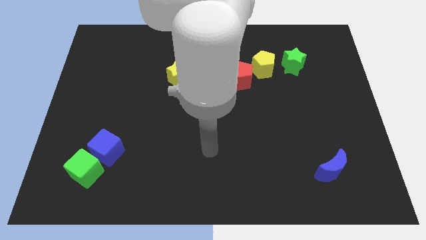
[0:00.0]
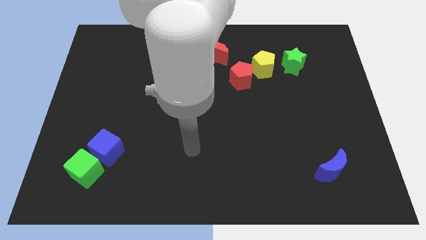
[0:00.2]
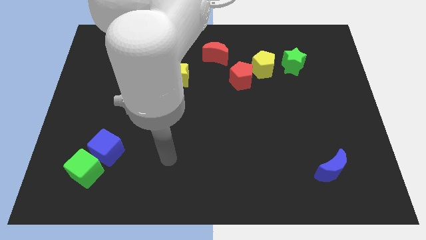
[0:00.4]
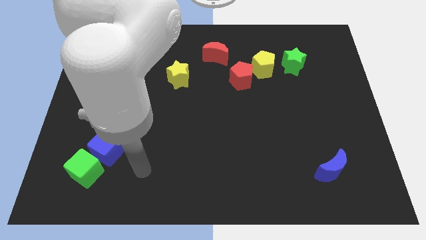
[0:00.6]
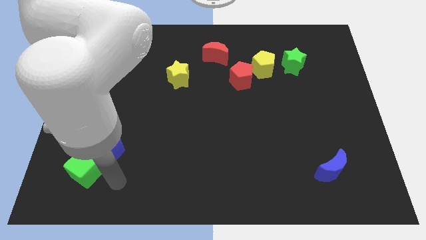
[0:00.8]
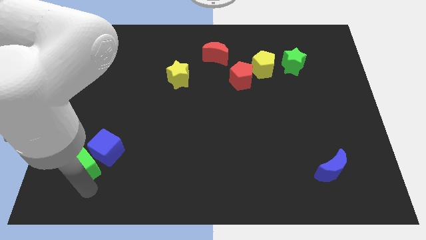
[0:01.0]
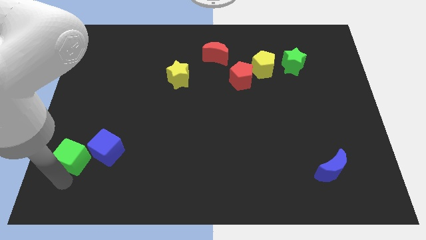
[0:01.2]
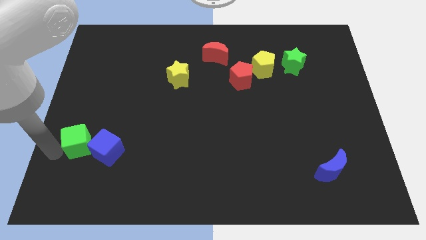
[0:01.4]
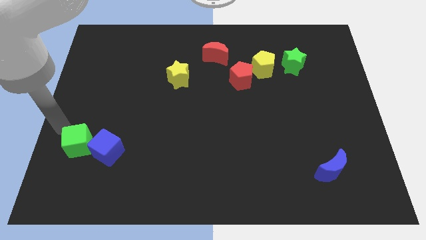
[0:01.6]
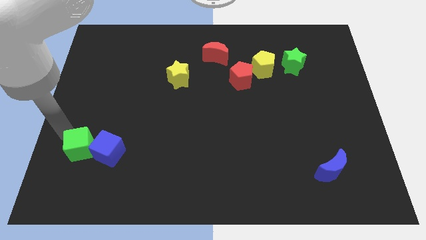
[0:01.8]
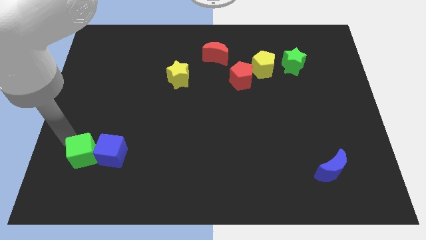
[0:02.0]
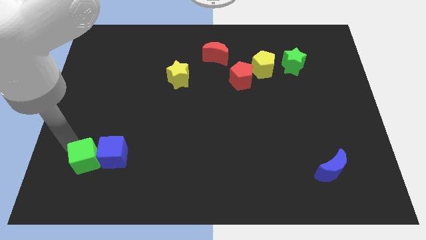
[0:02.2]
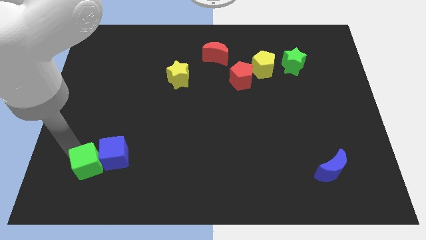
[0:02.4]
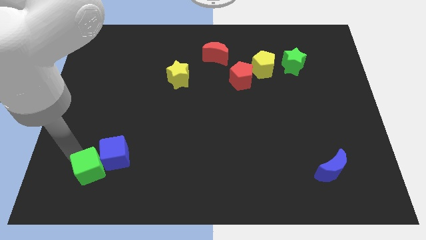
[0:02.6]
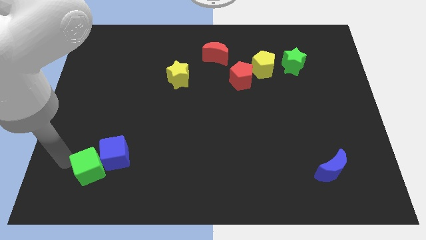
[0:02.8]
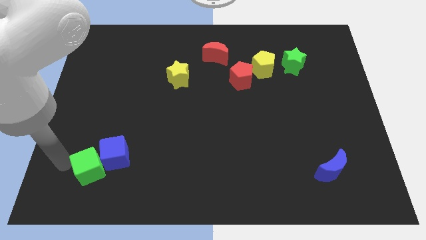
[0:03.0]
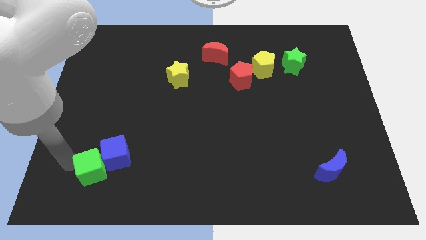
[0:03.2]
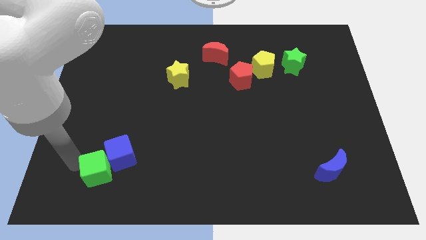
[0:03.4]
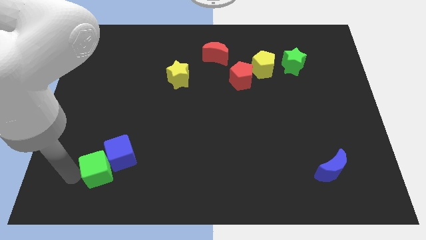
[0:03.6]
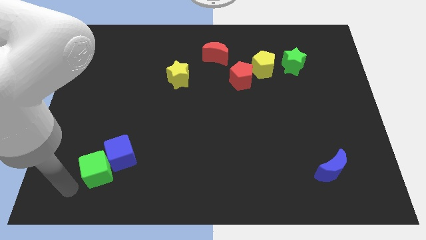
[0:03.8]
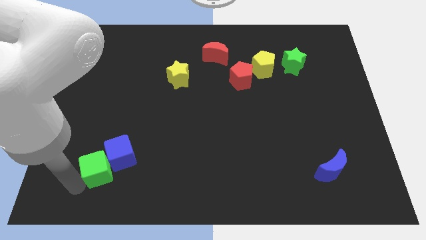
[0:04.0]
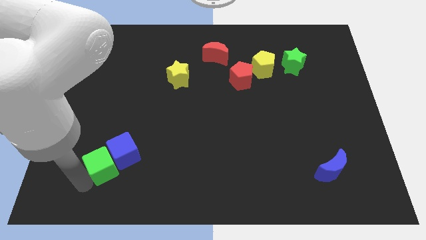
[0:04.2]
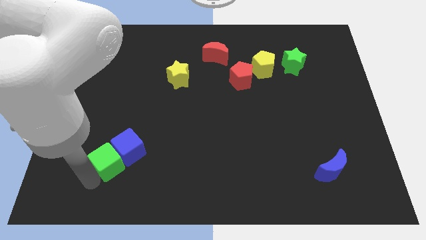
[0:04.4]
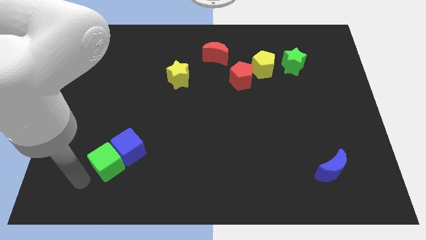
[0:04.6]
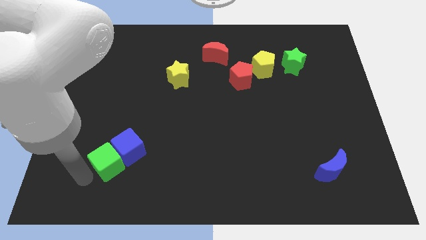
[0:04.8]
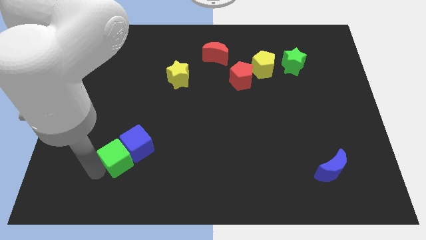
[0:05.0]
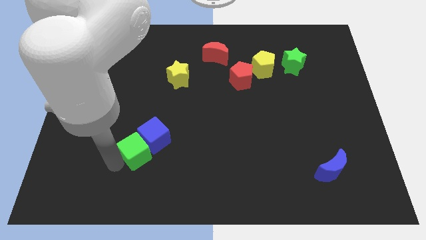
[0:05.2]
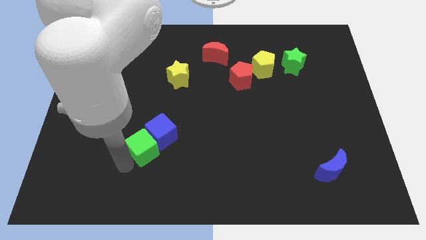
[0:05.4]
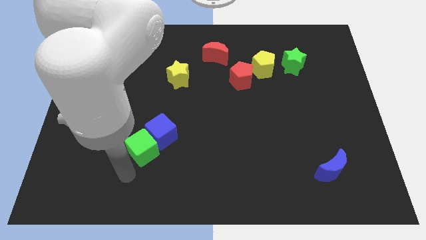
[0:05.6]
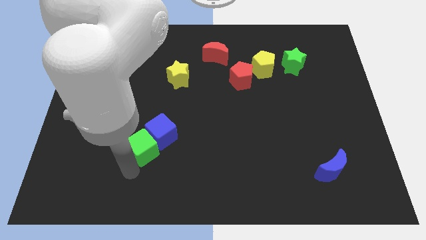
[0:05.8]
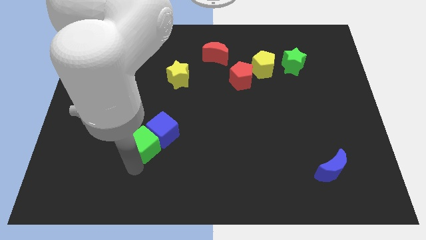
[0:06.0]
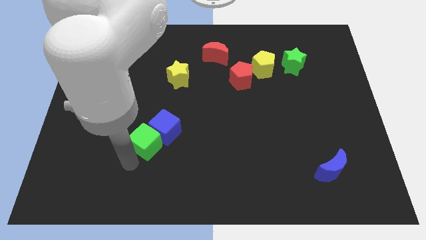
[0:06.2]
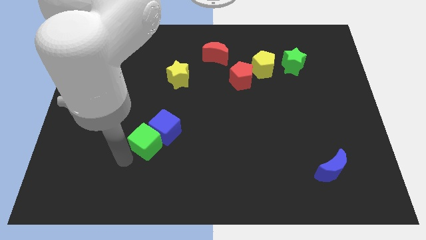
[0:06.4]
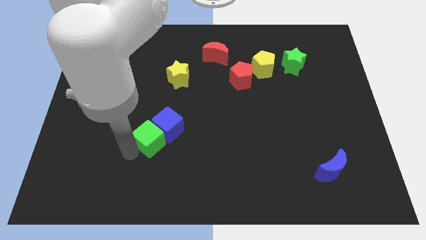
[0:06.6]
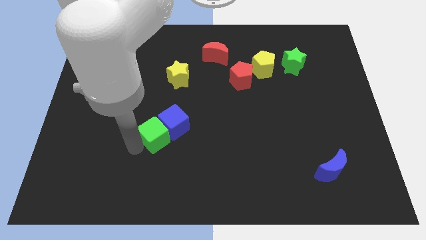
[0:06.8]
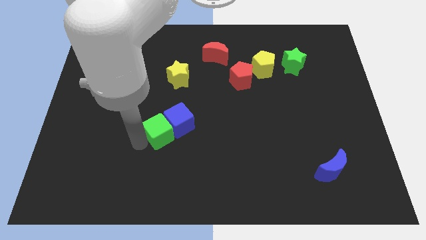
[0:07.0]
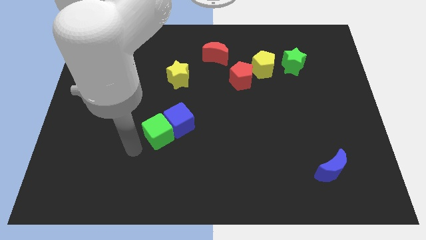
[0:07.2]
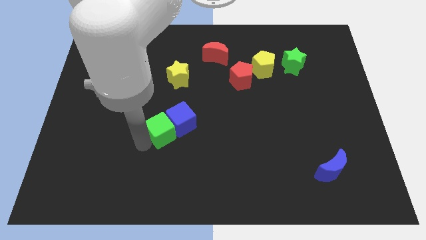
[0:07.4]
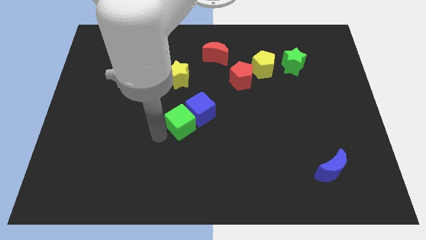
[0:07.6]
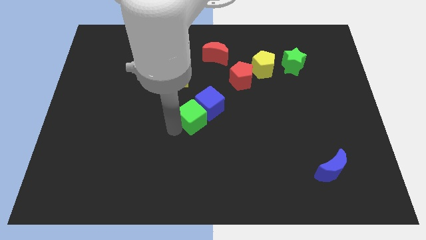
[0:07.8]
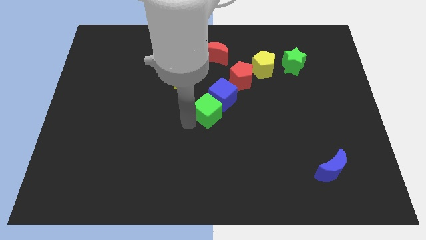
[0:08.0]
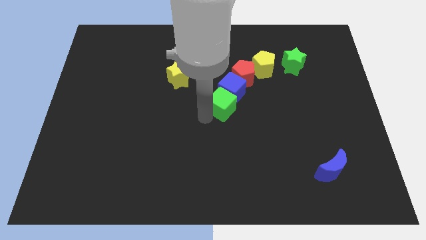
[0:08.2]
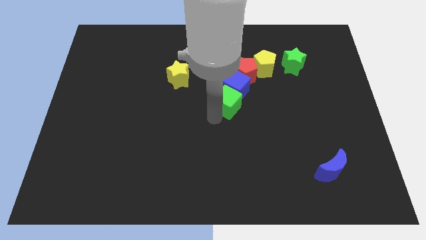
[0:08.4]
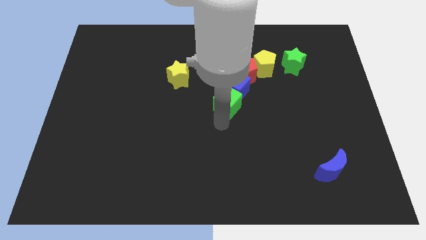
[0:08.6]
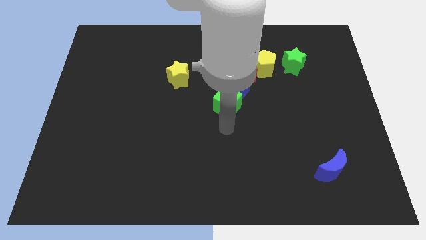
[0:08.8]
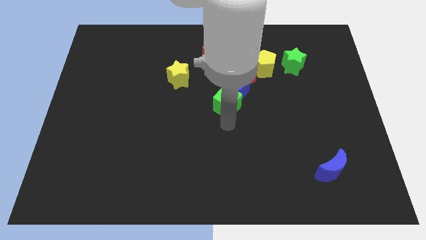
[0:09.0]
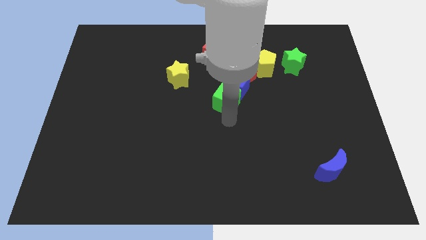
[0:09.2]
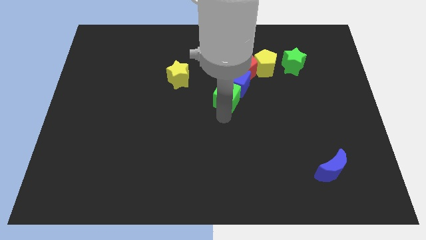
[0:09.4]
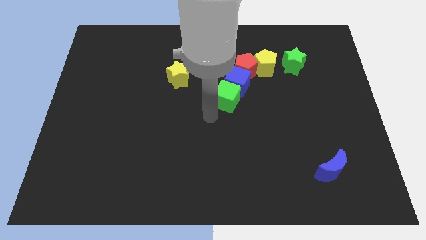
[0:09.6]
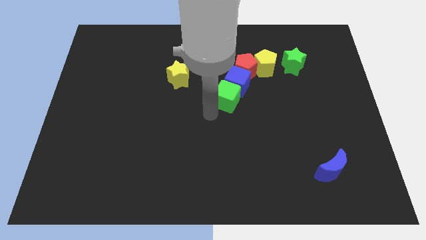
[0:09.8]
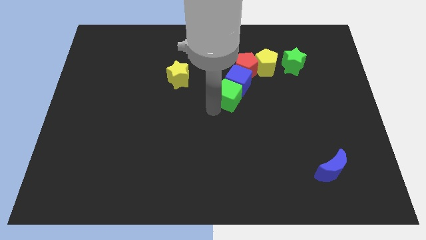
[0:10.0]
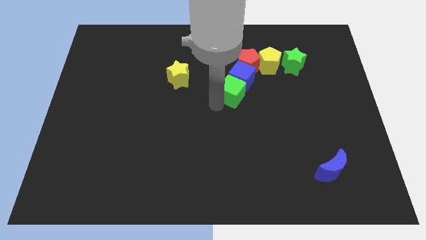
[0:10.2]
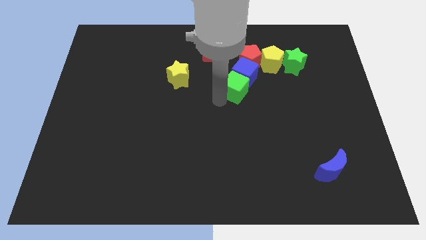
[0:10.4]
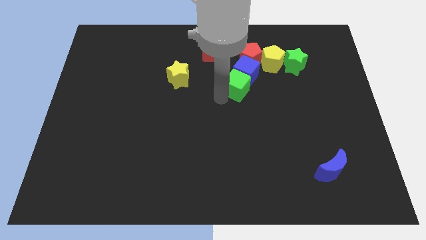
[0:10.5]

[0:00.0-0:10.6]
move the green cube to the bottom left side of the yellow pentagon

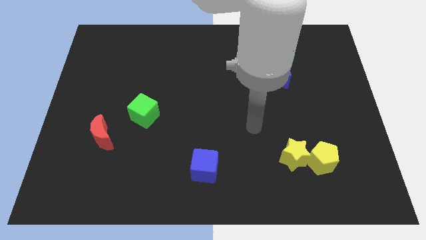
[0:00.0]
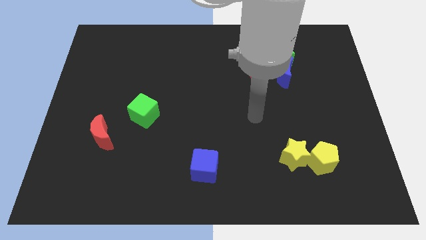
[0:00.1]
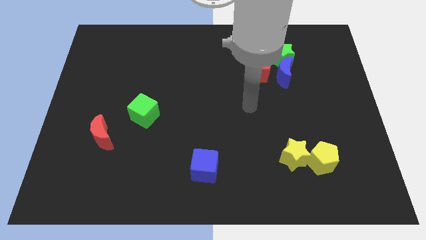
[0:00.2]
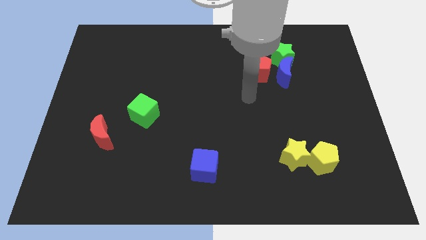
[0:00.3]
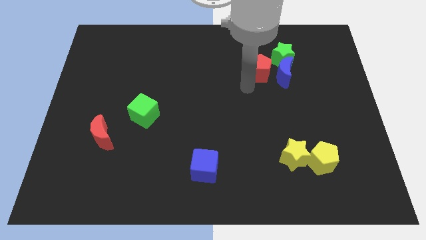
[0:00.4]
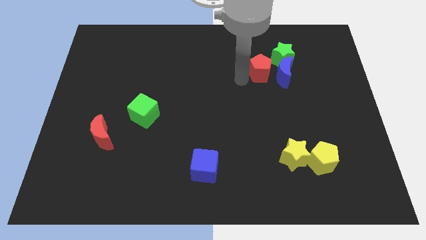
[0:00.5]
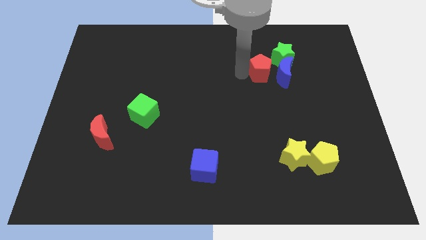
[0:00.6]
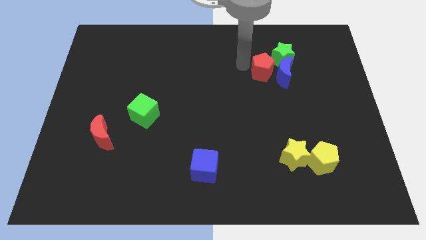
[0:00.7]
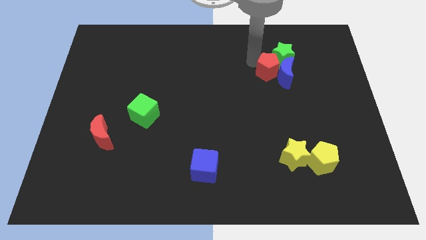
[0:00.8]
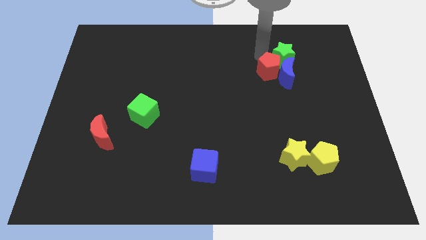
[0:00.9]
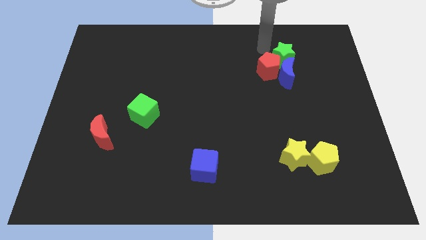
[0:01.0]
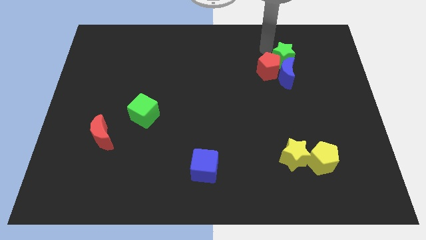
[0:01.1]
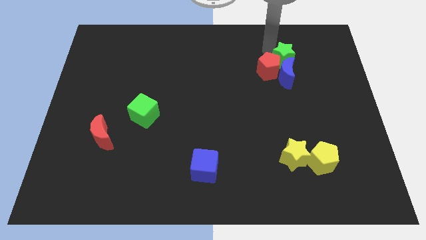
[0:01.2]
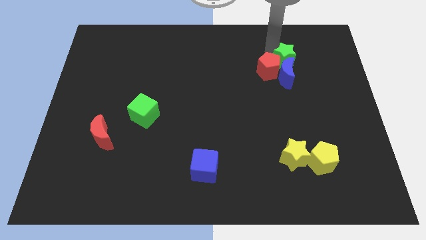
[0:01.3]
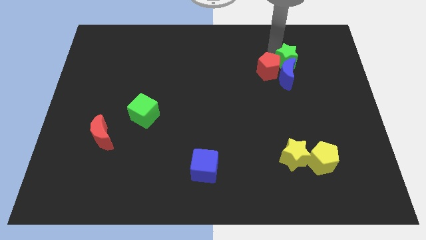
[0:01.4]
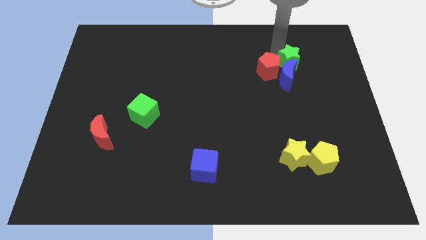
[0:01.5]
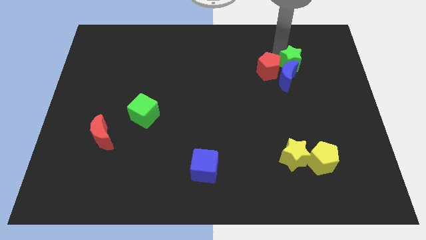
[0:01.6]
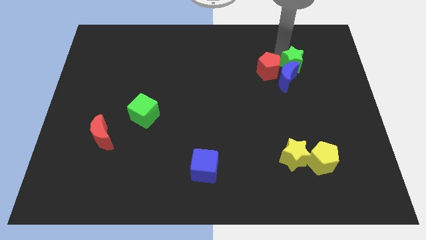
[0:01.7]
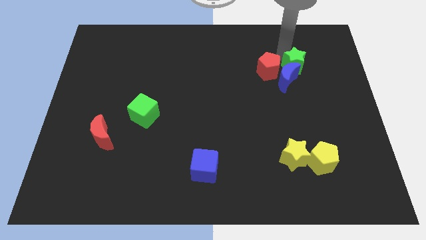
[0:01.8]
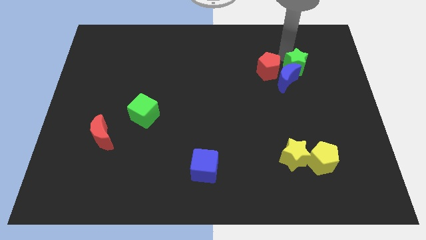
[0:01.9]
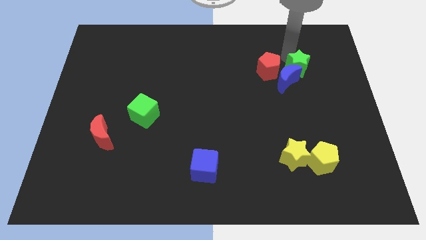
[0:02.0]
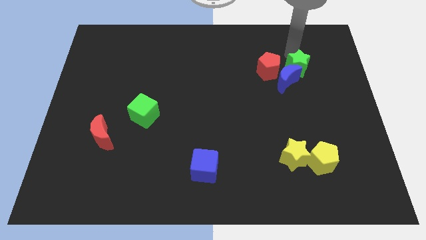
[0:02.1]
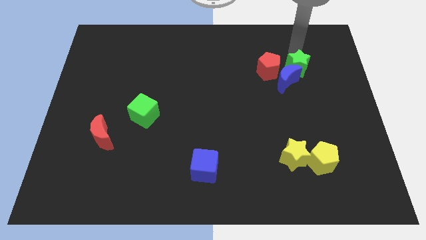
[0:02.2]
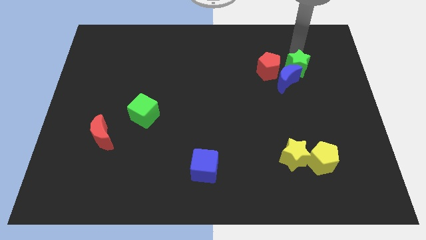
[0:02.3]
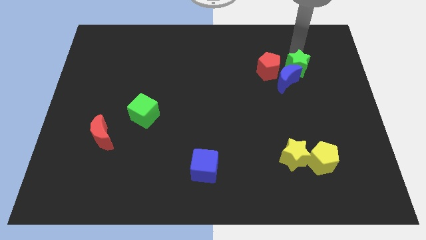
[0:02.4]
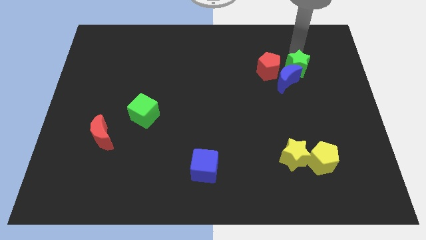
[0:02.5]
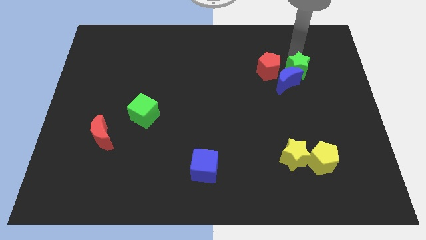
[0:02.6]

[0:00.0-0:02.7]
move the green star to the bottom right of the red pentagon
